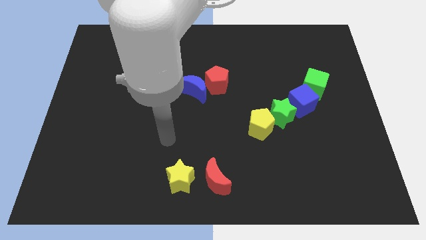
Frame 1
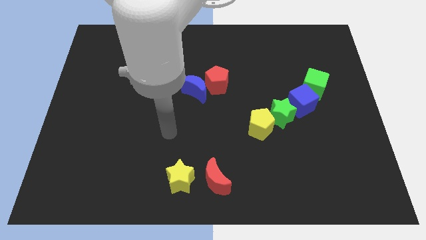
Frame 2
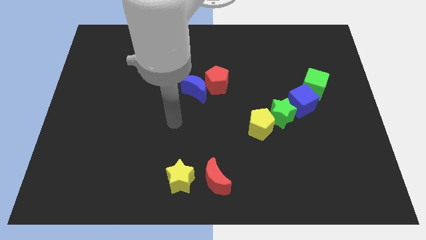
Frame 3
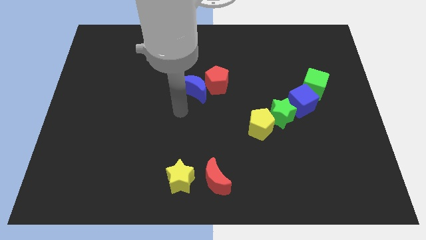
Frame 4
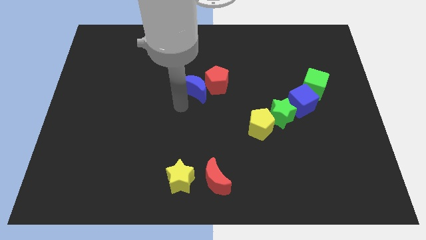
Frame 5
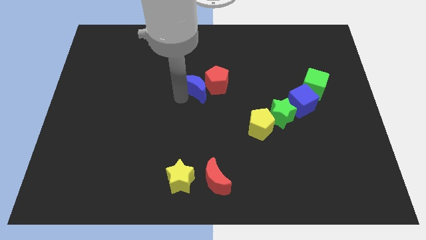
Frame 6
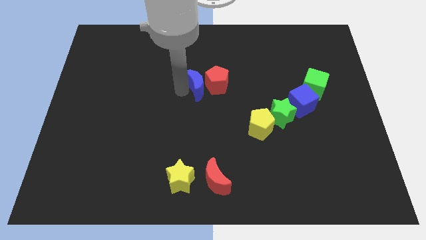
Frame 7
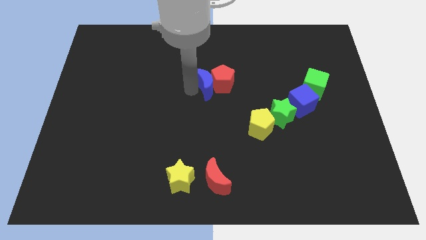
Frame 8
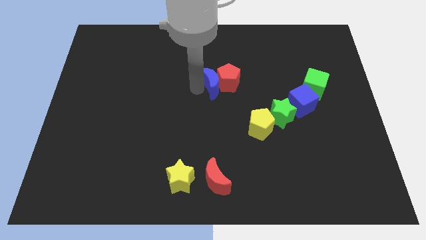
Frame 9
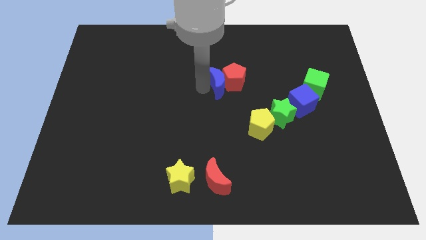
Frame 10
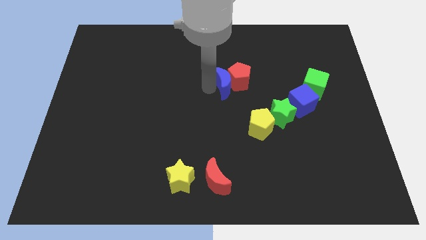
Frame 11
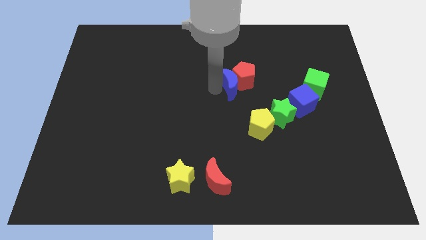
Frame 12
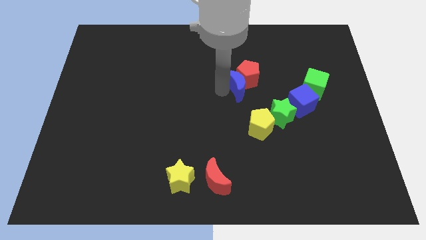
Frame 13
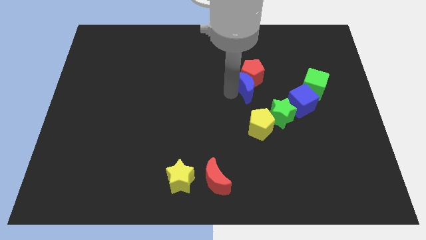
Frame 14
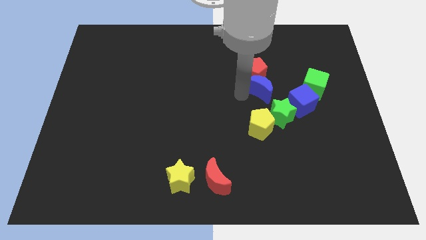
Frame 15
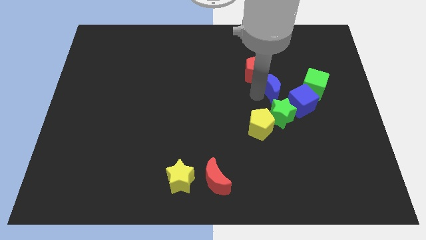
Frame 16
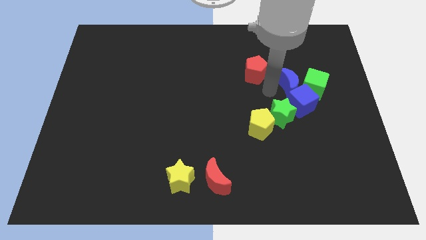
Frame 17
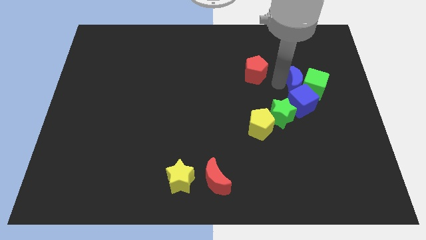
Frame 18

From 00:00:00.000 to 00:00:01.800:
pull the red pentagon apart from the blue moon

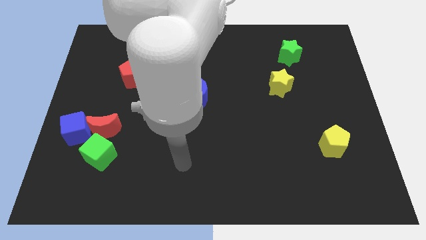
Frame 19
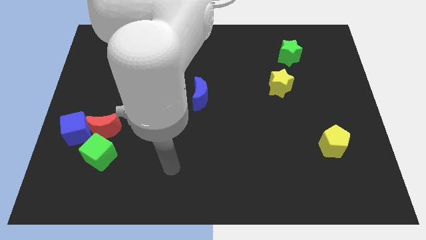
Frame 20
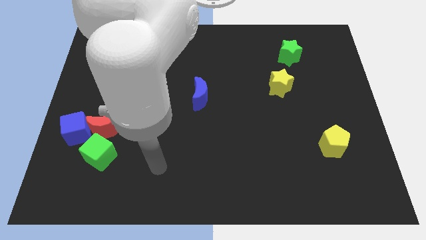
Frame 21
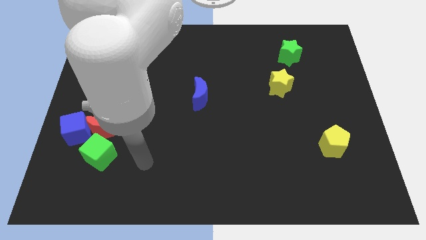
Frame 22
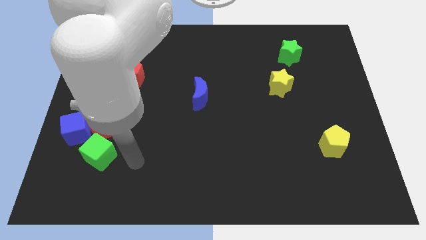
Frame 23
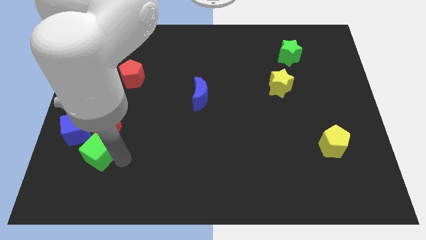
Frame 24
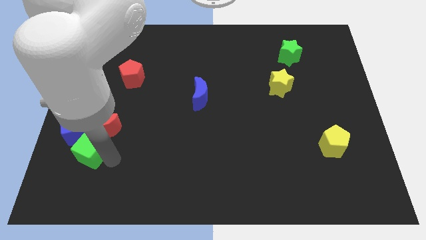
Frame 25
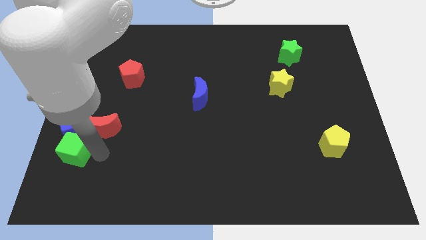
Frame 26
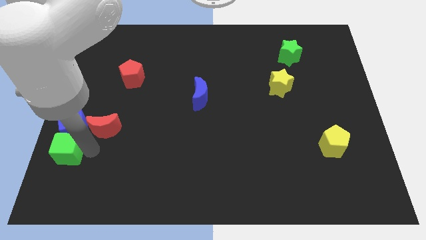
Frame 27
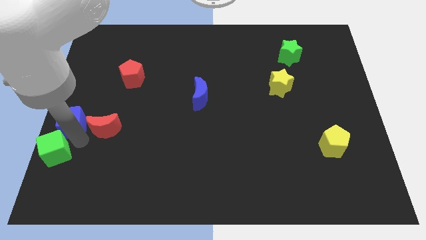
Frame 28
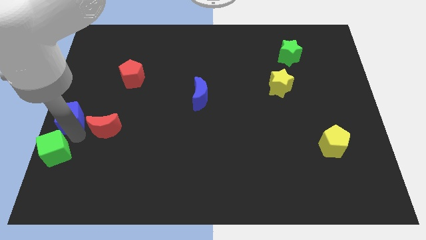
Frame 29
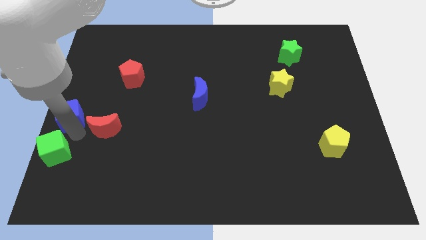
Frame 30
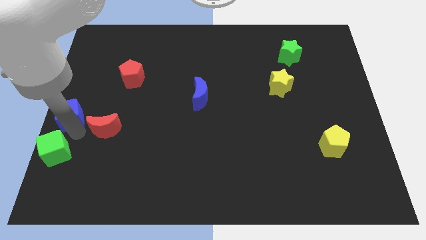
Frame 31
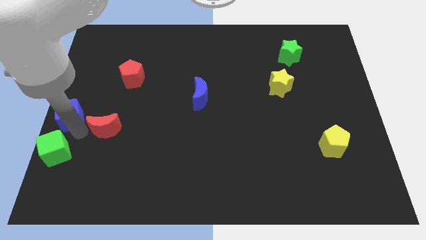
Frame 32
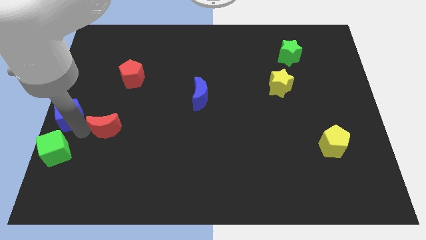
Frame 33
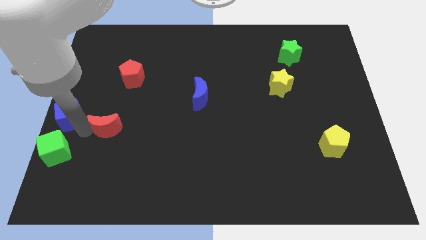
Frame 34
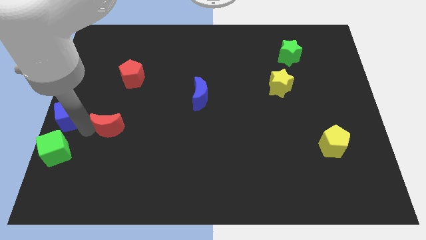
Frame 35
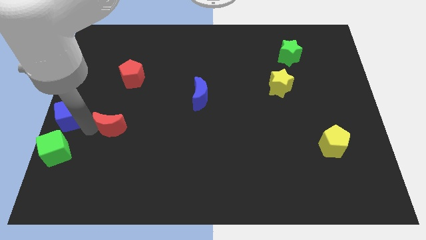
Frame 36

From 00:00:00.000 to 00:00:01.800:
move the red moon away from the blue cube and green cube

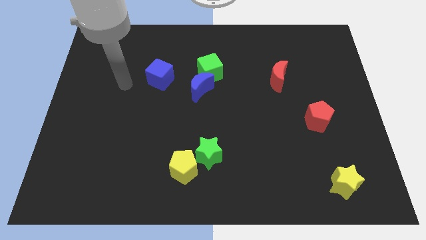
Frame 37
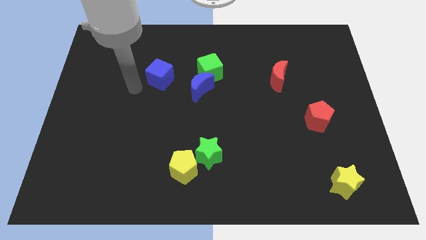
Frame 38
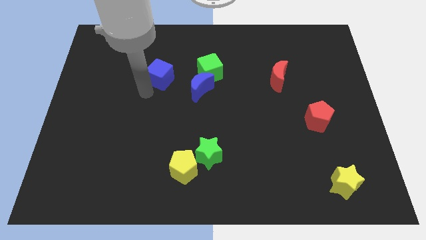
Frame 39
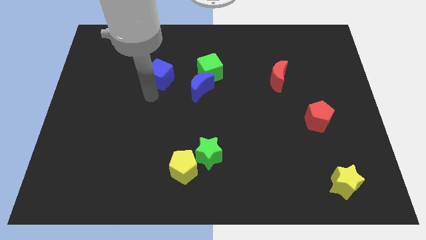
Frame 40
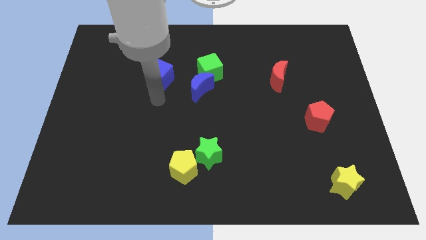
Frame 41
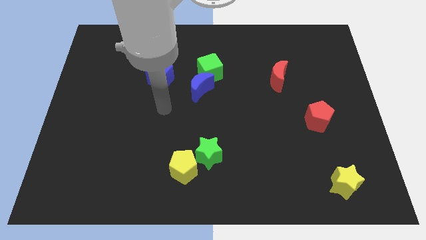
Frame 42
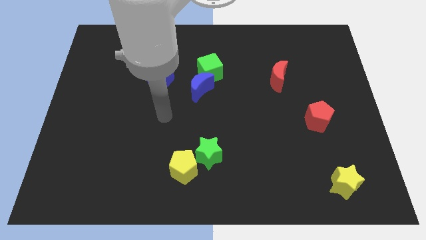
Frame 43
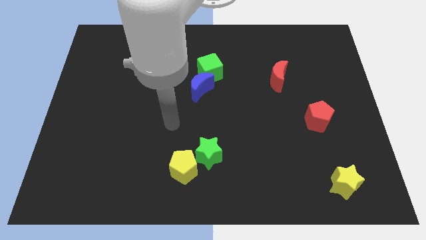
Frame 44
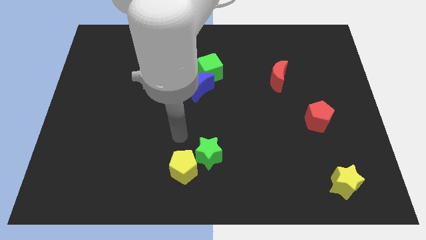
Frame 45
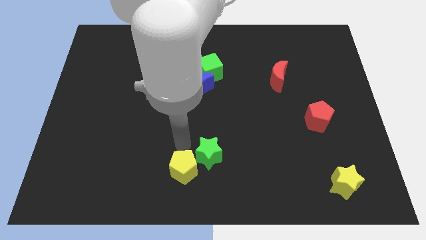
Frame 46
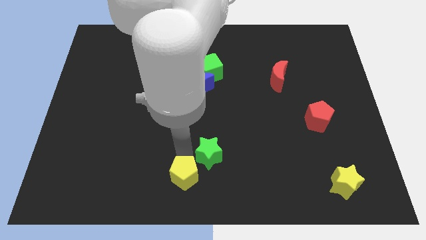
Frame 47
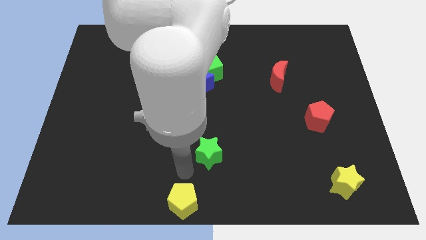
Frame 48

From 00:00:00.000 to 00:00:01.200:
move the green star away from the yellow pentagon

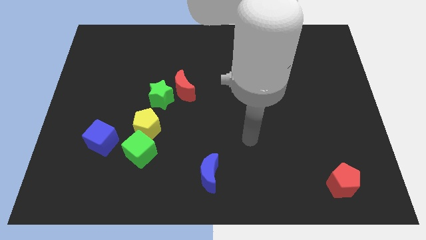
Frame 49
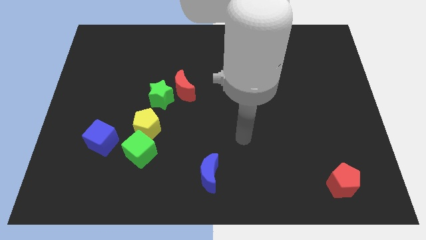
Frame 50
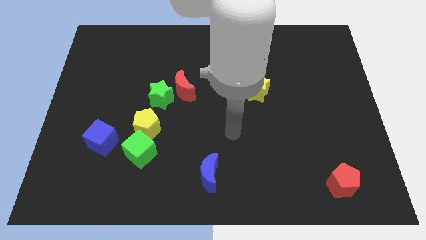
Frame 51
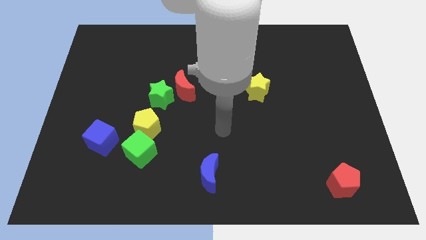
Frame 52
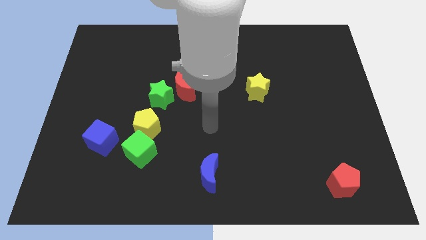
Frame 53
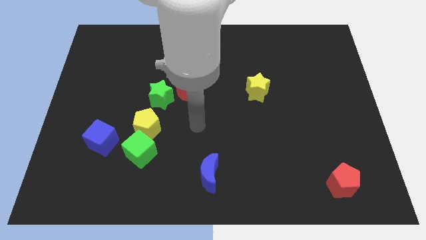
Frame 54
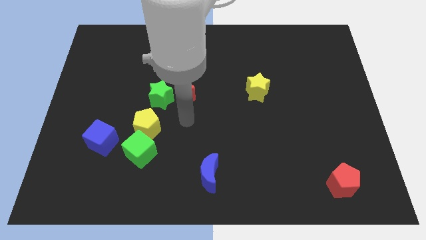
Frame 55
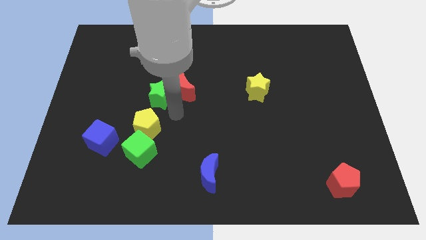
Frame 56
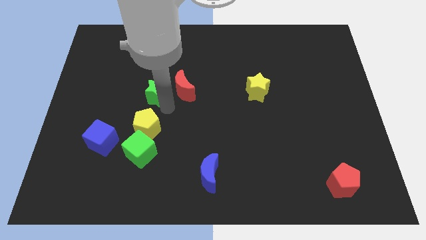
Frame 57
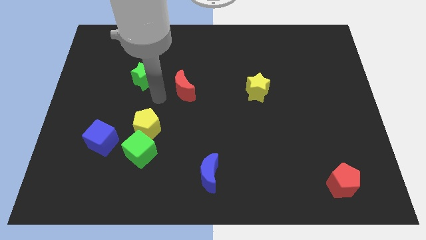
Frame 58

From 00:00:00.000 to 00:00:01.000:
move the red moon away from the green star

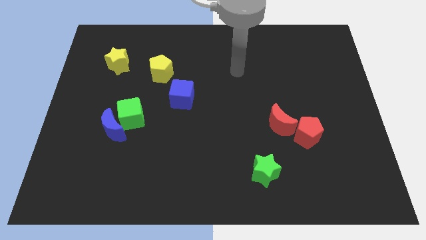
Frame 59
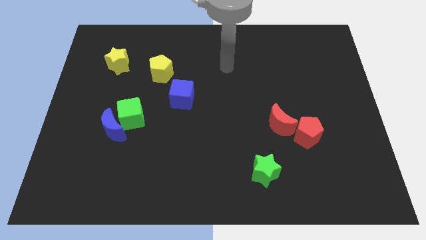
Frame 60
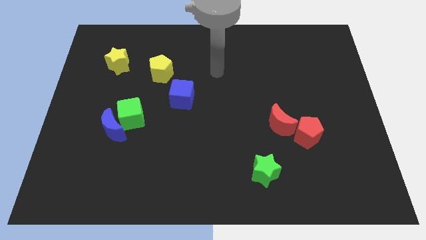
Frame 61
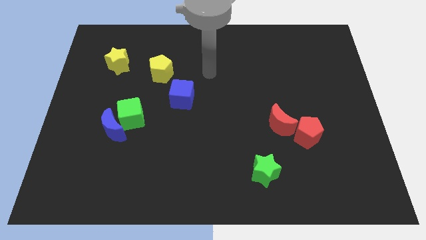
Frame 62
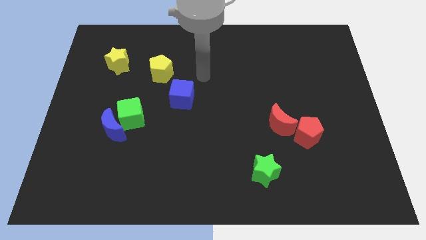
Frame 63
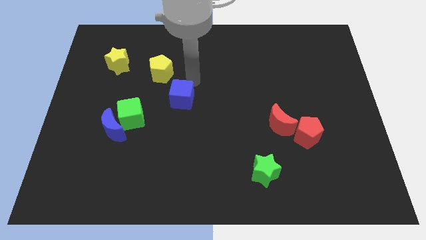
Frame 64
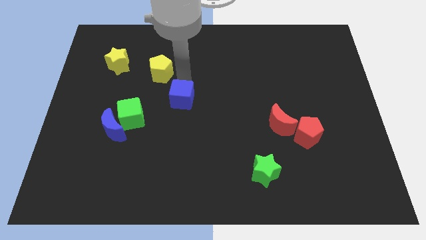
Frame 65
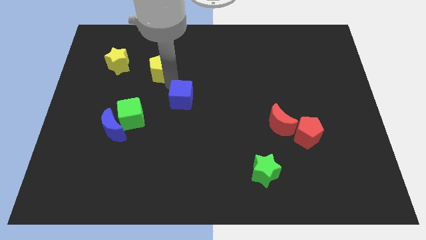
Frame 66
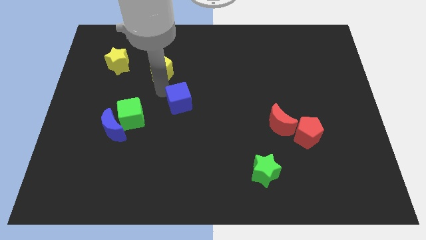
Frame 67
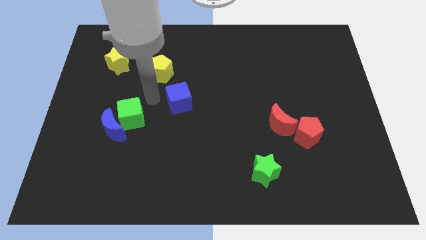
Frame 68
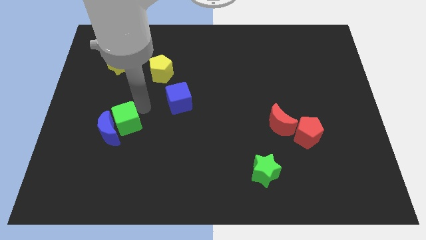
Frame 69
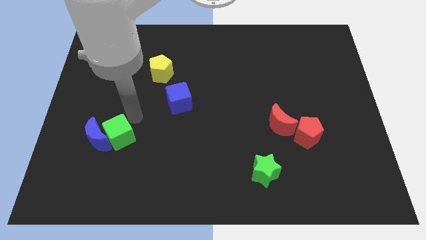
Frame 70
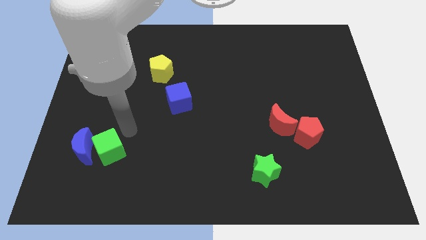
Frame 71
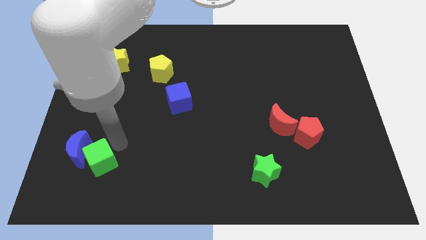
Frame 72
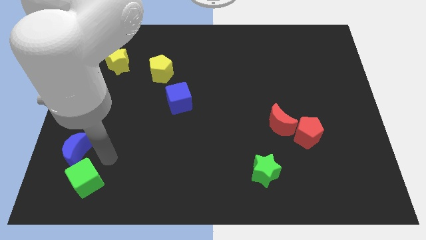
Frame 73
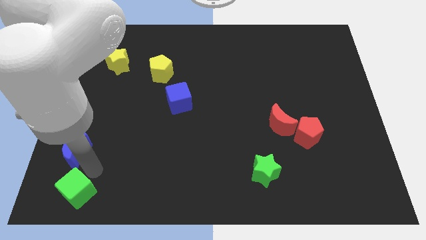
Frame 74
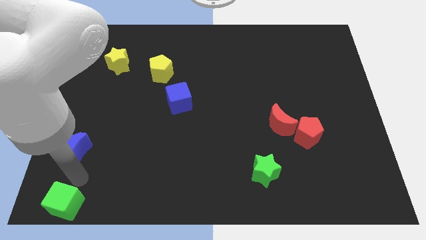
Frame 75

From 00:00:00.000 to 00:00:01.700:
move the blue moon away from the green cube

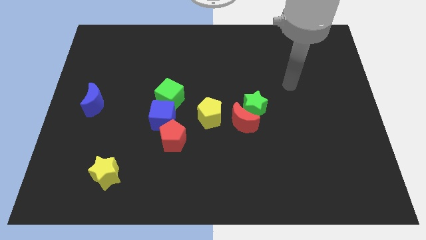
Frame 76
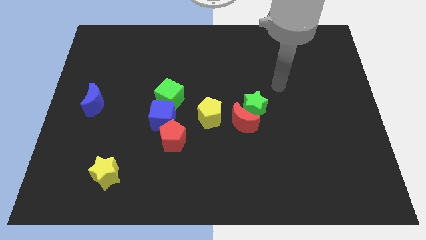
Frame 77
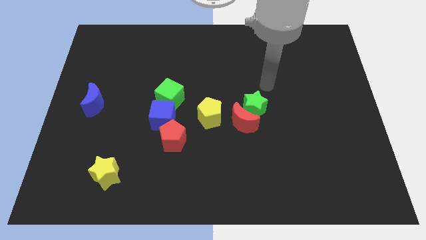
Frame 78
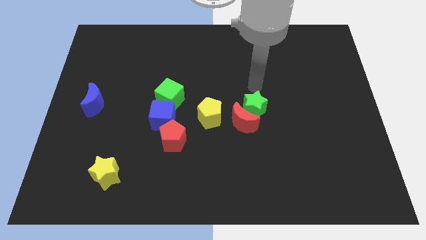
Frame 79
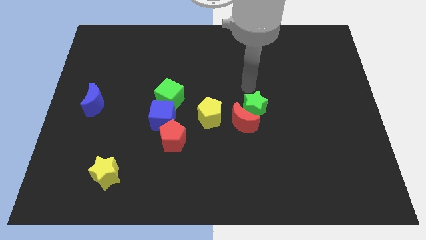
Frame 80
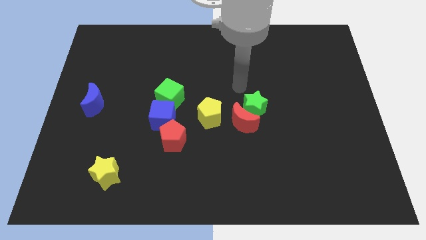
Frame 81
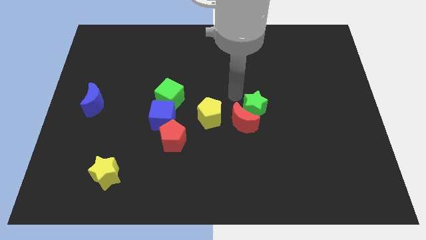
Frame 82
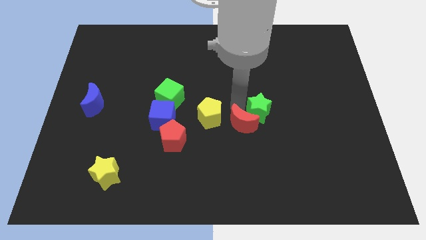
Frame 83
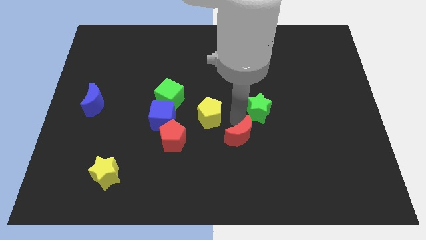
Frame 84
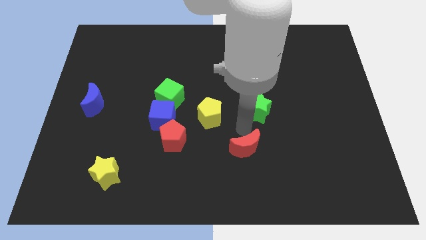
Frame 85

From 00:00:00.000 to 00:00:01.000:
separate the green star from the red moon

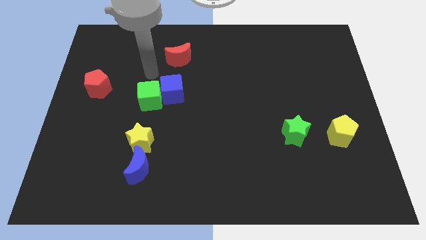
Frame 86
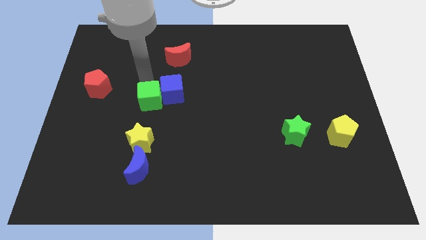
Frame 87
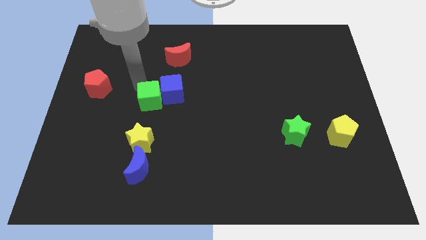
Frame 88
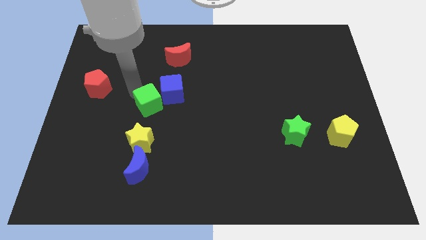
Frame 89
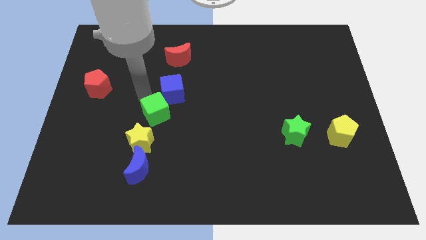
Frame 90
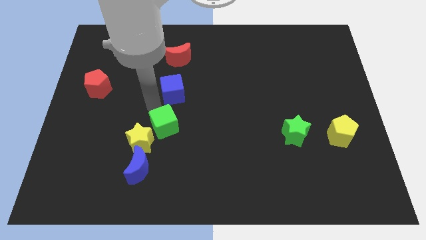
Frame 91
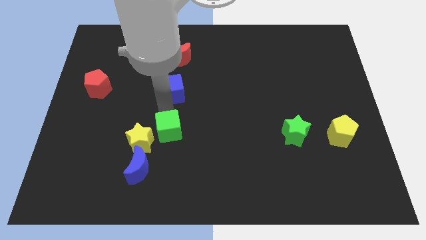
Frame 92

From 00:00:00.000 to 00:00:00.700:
pull the blue cube apart from the green cube

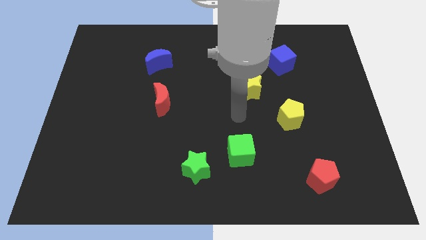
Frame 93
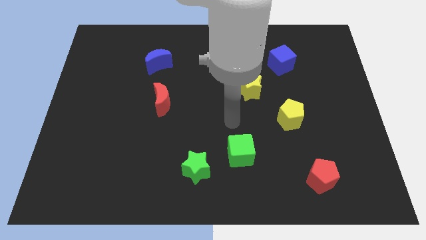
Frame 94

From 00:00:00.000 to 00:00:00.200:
separate the green cube from the green star

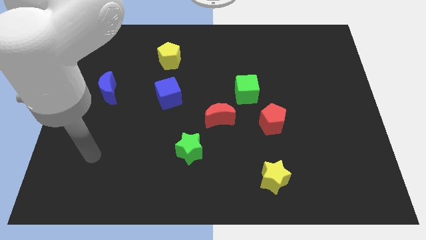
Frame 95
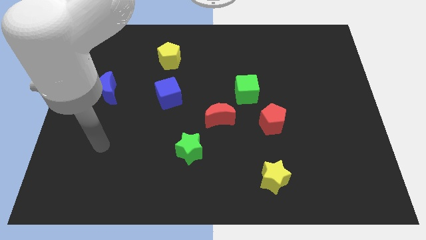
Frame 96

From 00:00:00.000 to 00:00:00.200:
separate the red moon from the green cube
